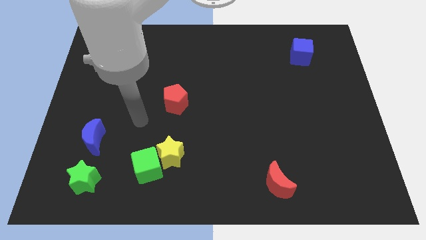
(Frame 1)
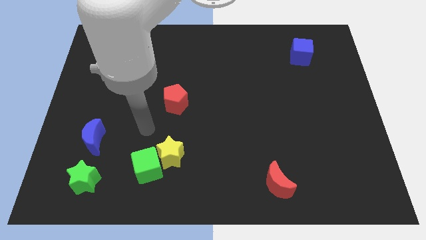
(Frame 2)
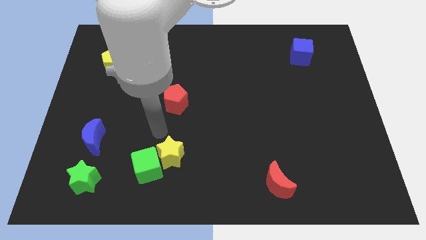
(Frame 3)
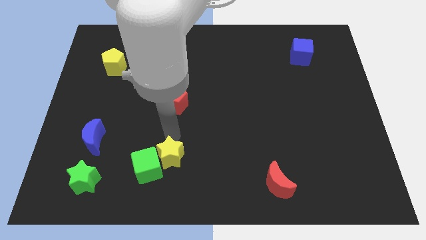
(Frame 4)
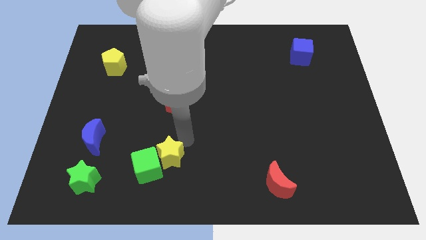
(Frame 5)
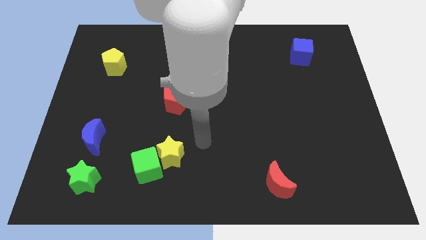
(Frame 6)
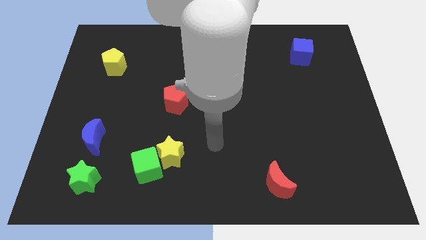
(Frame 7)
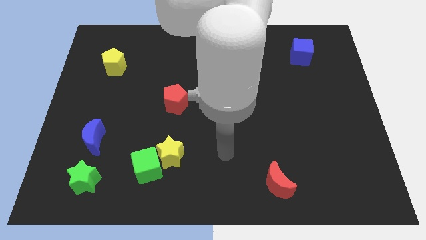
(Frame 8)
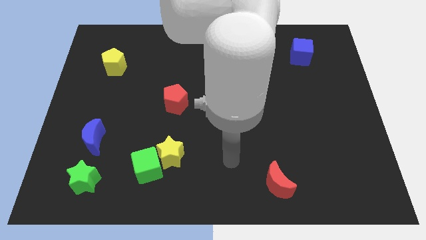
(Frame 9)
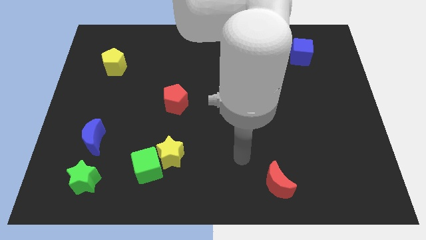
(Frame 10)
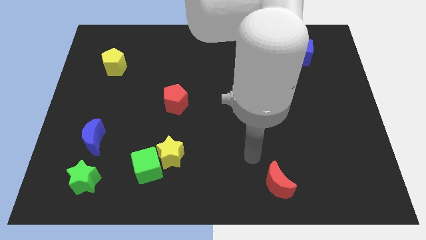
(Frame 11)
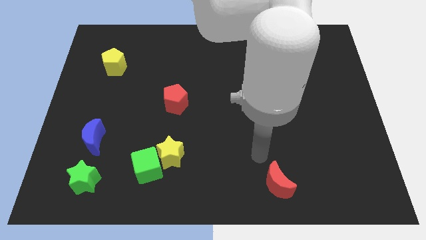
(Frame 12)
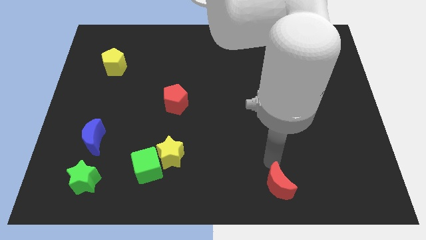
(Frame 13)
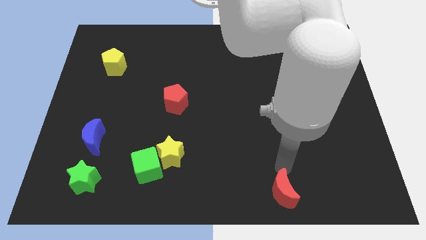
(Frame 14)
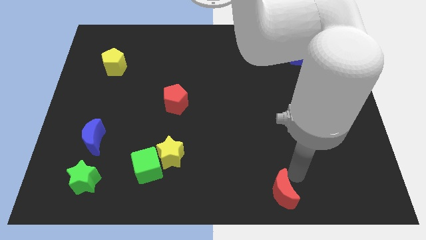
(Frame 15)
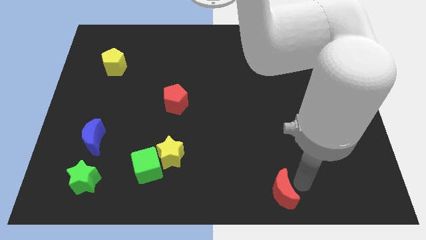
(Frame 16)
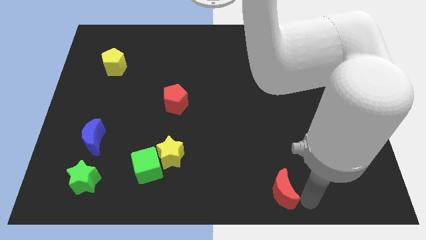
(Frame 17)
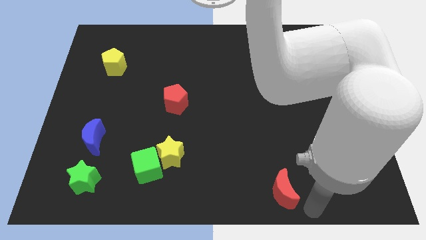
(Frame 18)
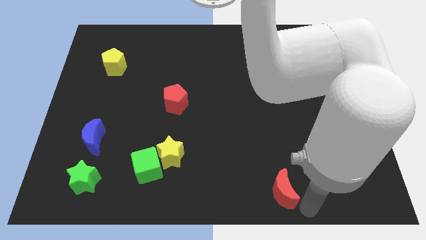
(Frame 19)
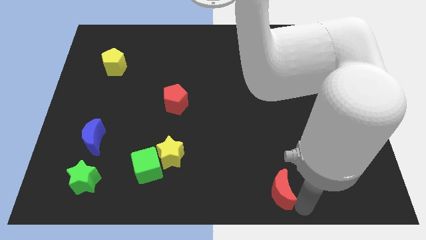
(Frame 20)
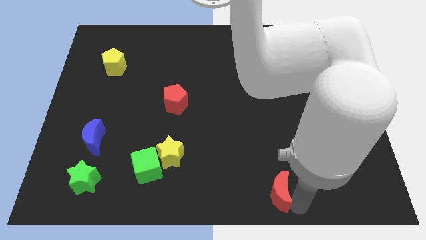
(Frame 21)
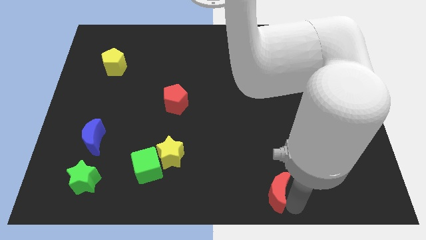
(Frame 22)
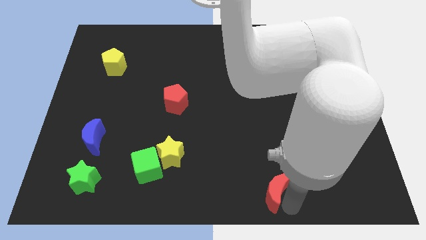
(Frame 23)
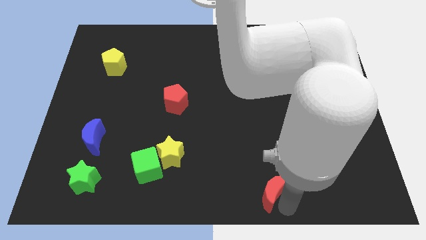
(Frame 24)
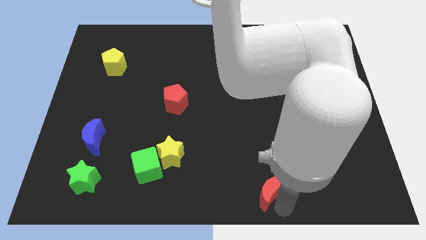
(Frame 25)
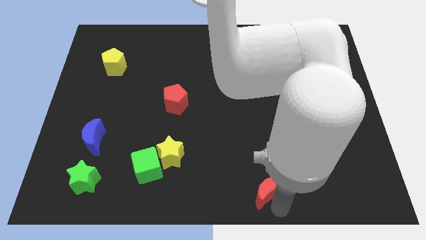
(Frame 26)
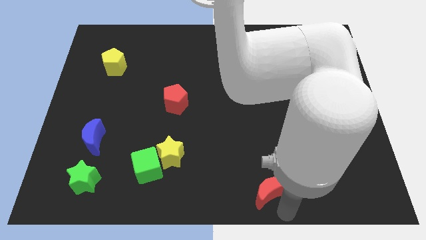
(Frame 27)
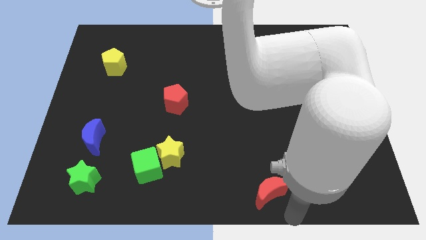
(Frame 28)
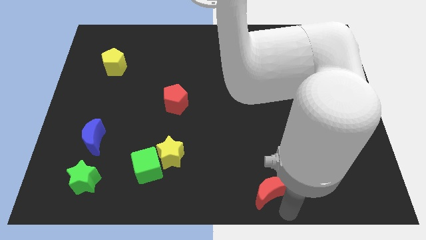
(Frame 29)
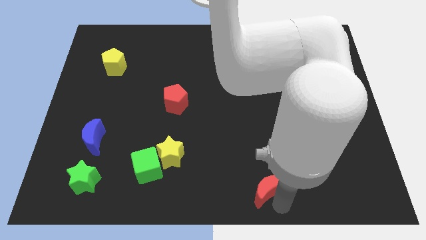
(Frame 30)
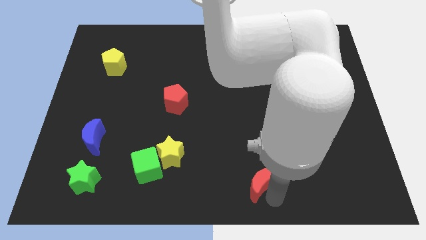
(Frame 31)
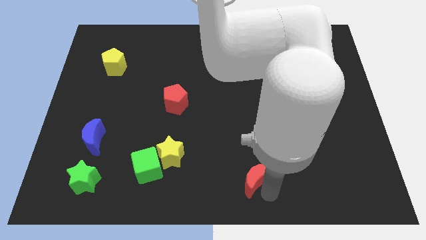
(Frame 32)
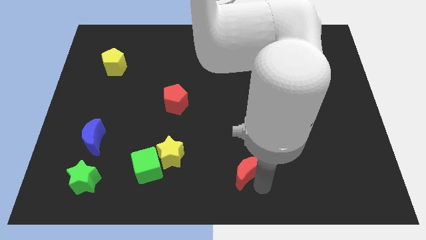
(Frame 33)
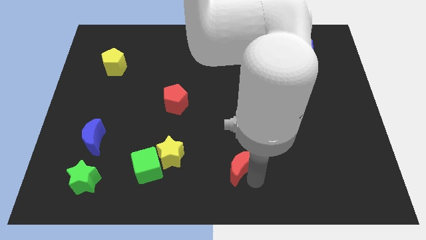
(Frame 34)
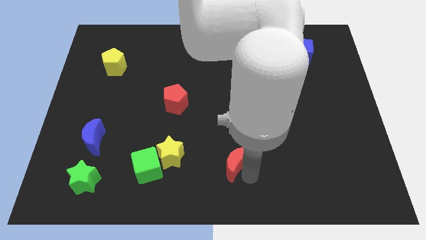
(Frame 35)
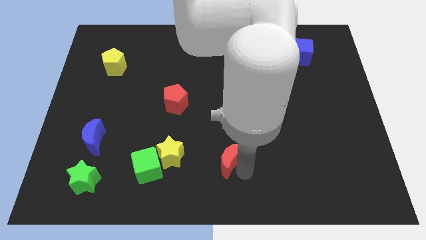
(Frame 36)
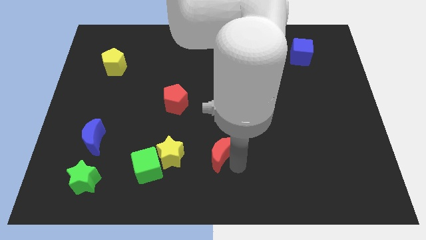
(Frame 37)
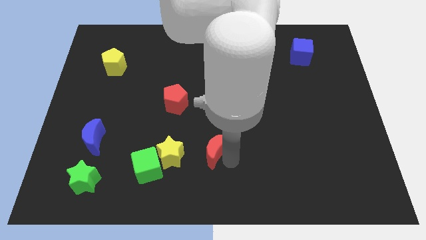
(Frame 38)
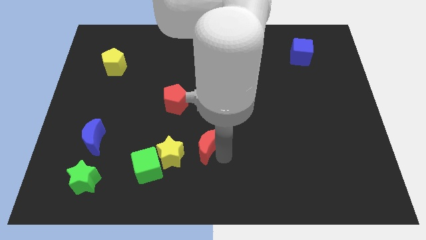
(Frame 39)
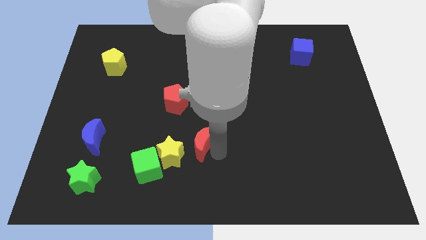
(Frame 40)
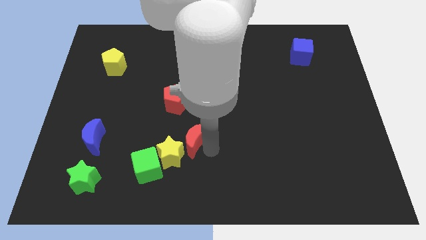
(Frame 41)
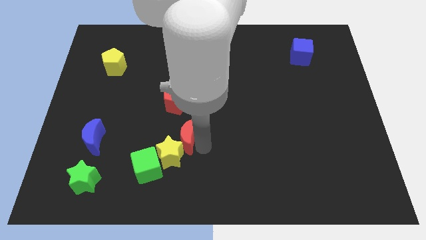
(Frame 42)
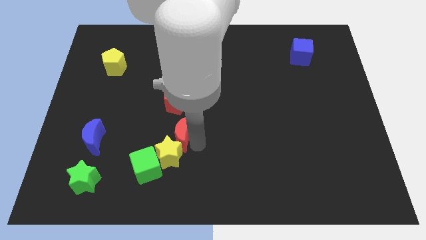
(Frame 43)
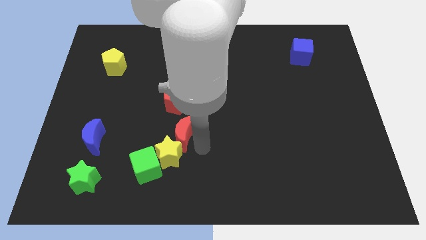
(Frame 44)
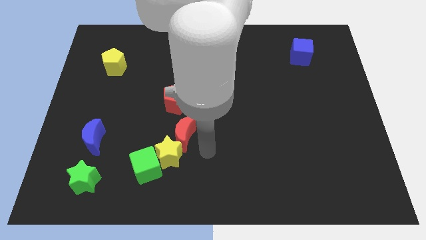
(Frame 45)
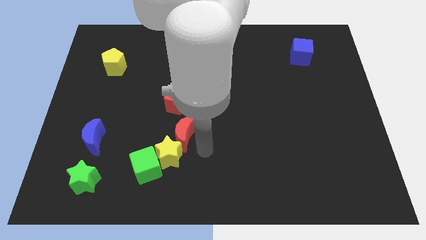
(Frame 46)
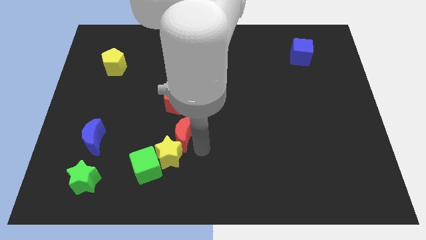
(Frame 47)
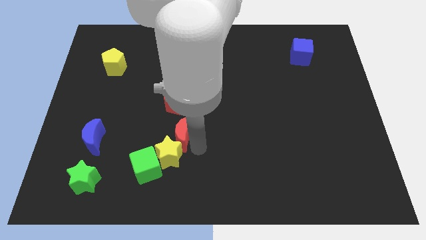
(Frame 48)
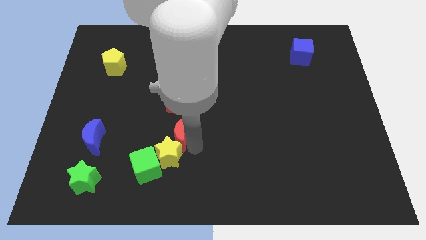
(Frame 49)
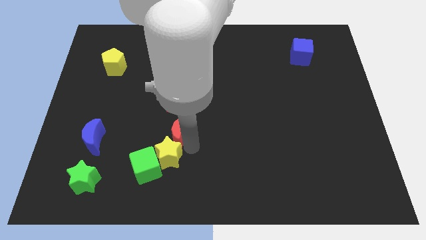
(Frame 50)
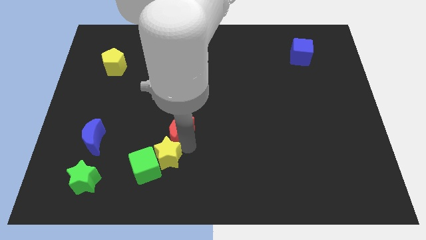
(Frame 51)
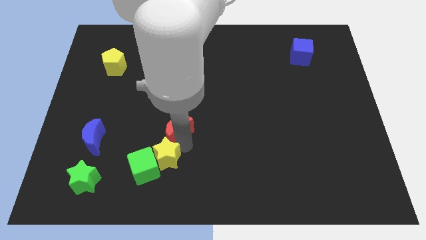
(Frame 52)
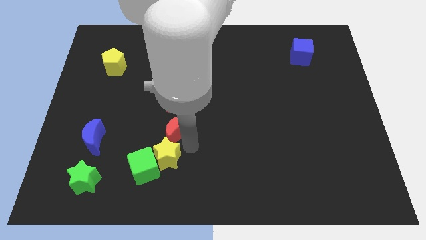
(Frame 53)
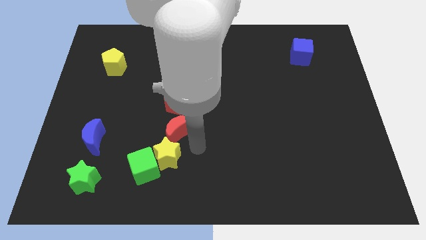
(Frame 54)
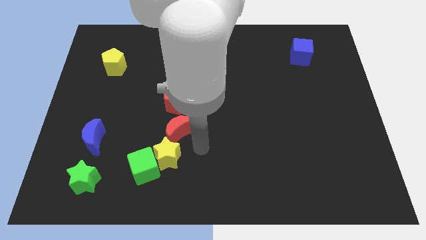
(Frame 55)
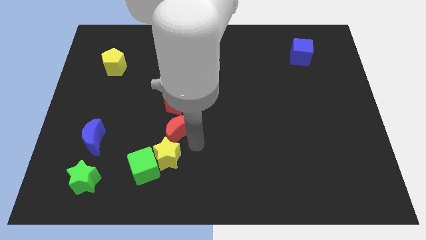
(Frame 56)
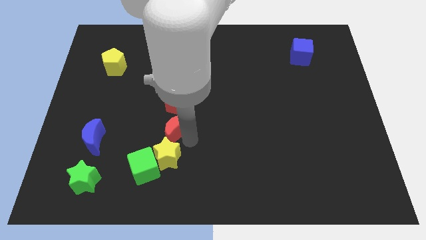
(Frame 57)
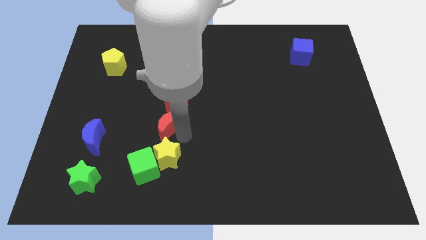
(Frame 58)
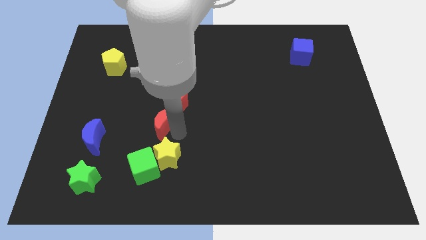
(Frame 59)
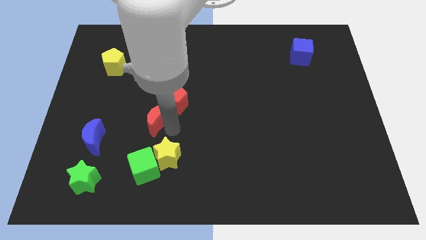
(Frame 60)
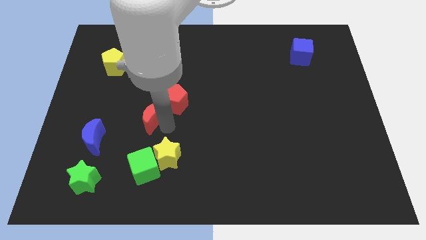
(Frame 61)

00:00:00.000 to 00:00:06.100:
push the red moon left of the red pentagon

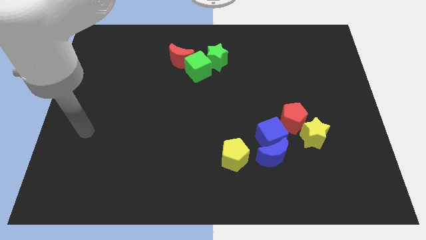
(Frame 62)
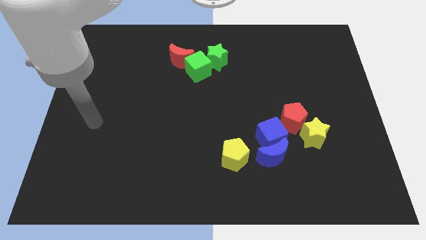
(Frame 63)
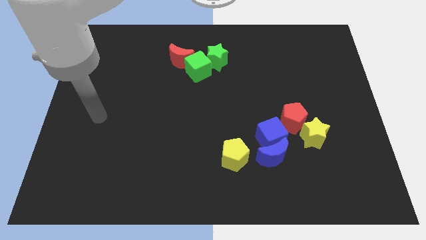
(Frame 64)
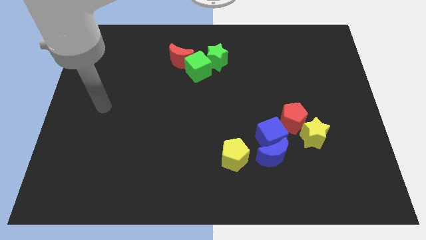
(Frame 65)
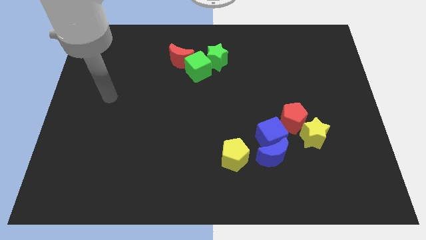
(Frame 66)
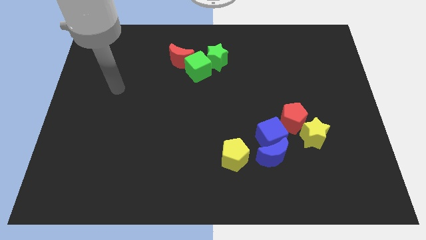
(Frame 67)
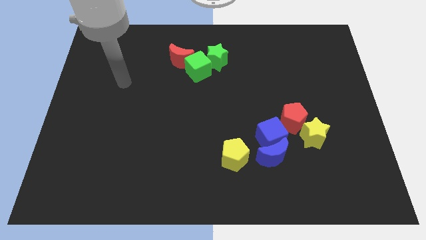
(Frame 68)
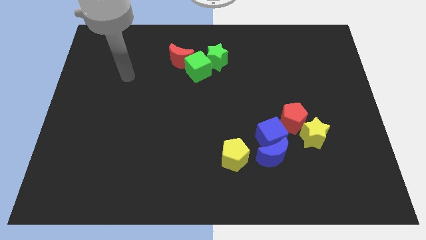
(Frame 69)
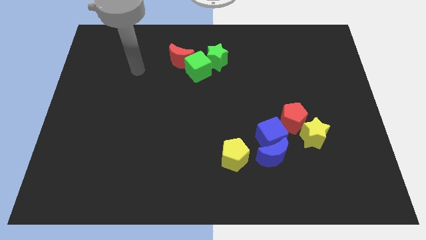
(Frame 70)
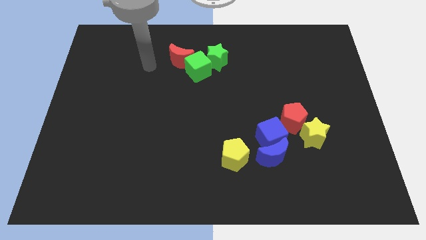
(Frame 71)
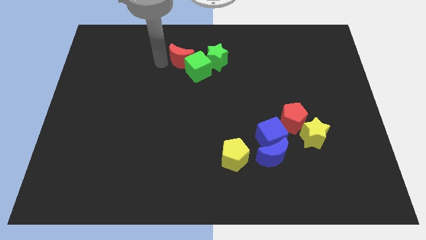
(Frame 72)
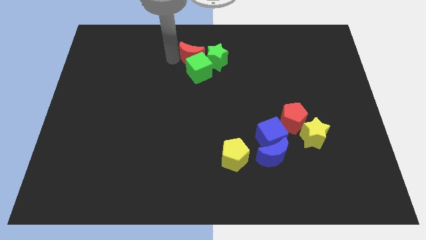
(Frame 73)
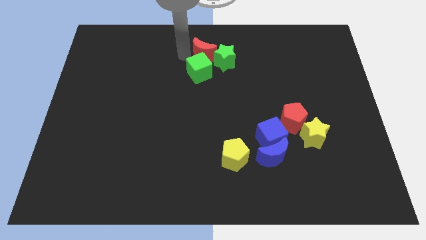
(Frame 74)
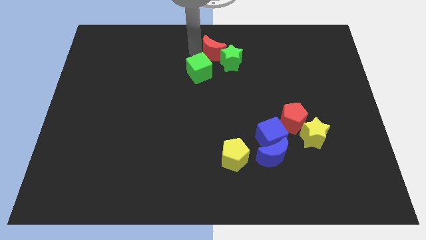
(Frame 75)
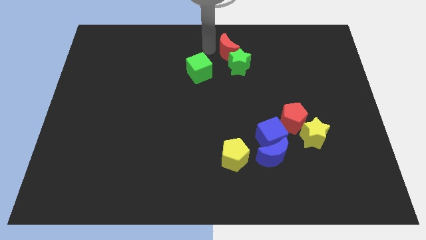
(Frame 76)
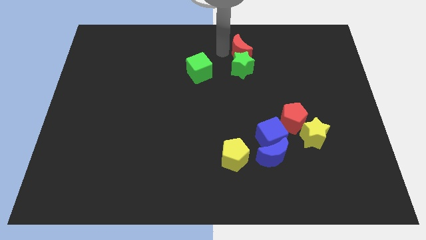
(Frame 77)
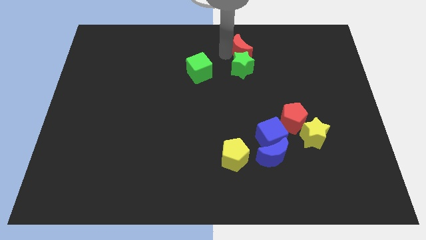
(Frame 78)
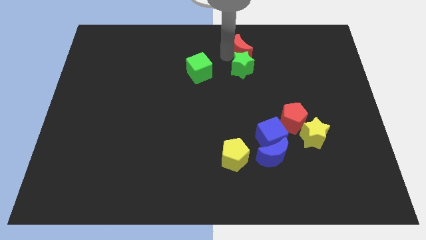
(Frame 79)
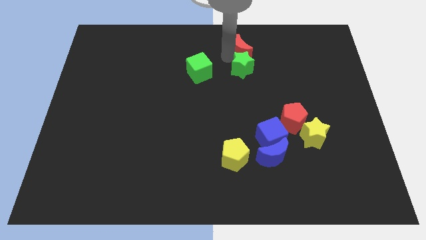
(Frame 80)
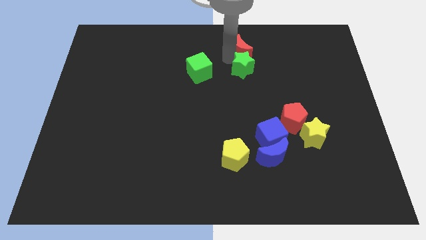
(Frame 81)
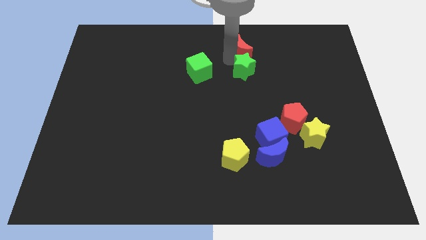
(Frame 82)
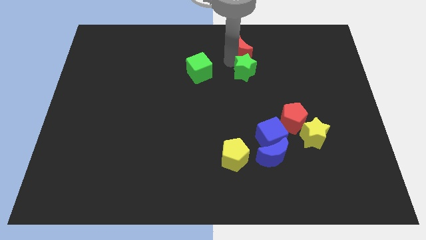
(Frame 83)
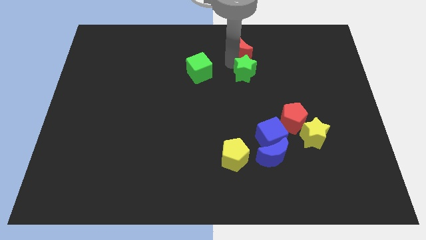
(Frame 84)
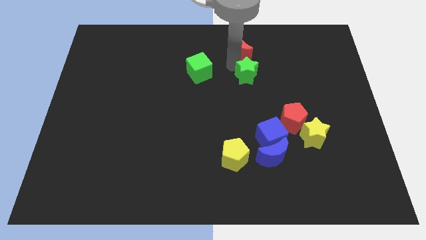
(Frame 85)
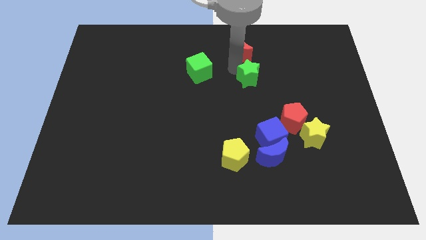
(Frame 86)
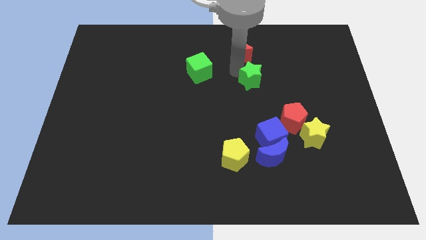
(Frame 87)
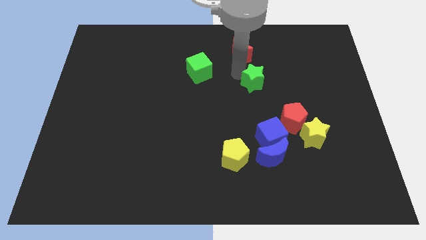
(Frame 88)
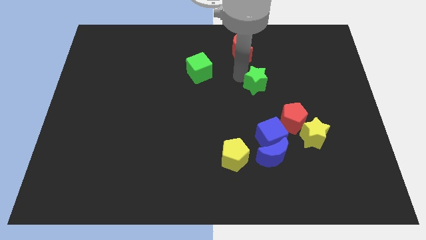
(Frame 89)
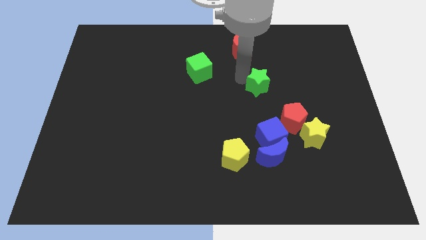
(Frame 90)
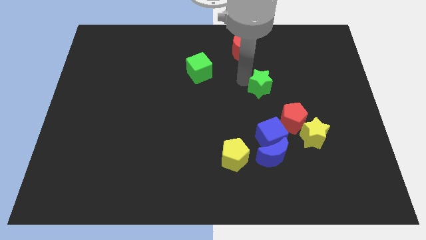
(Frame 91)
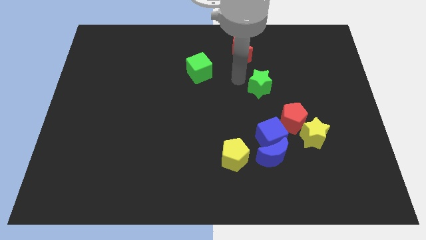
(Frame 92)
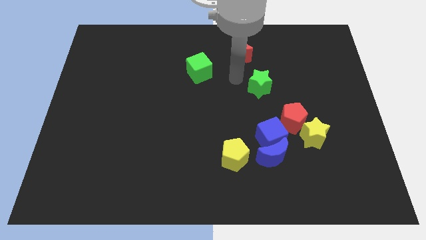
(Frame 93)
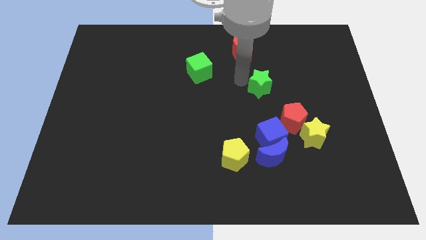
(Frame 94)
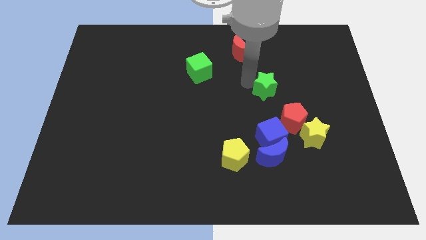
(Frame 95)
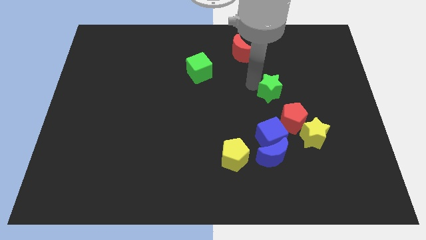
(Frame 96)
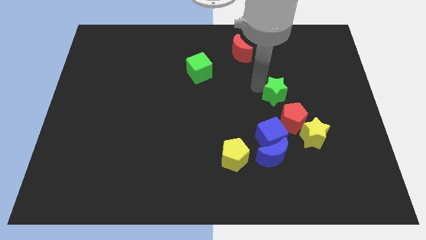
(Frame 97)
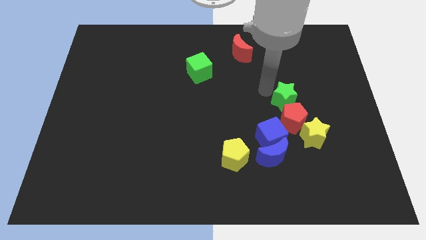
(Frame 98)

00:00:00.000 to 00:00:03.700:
push the green star diagonally up and to the right of the red pentagon
